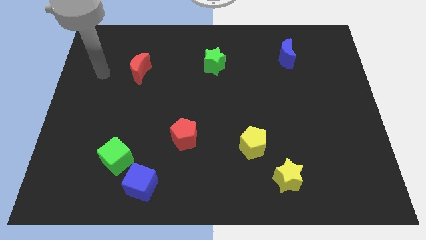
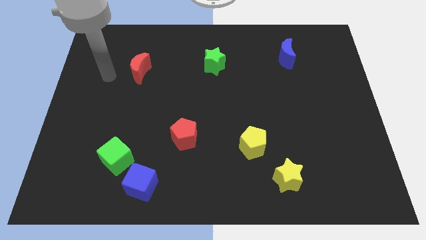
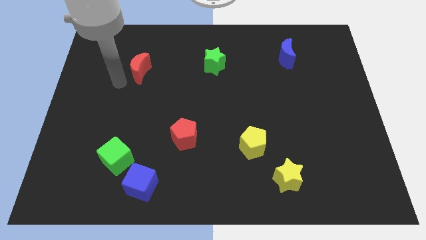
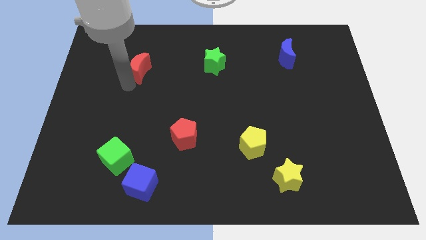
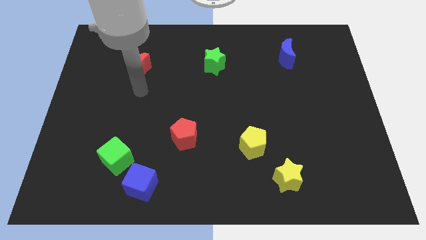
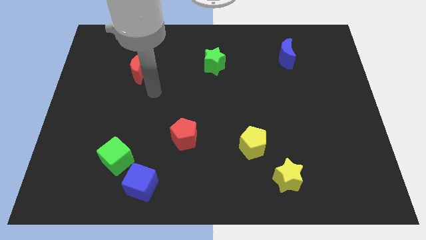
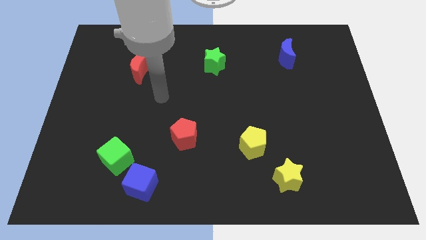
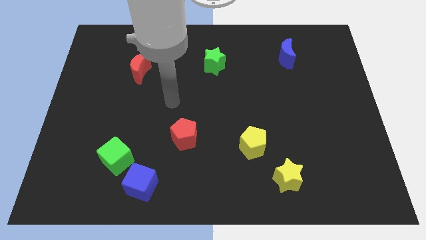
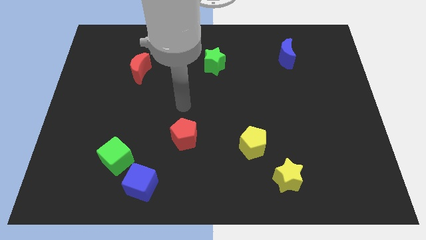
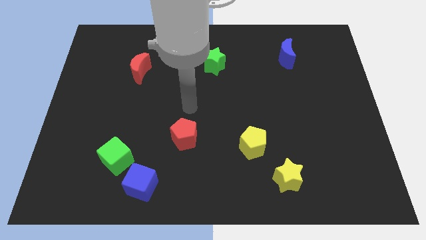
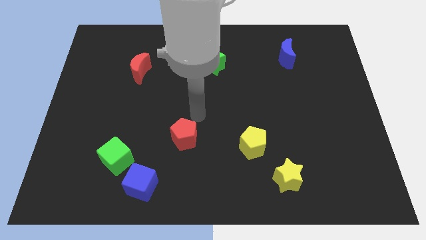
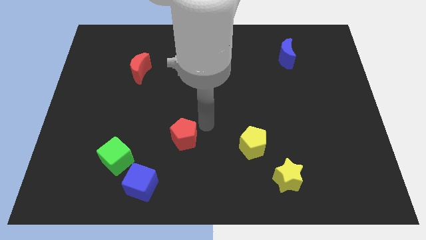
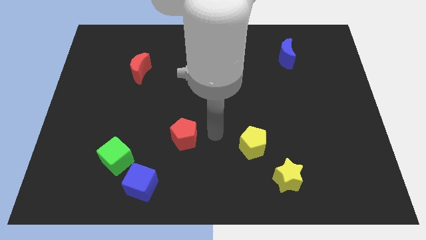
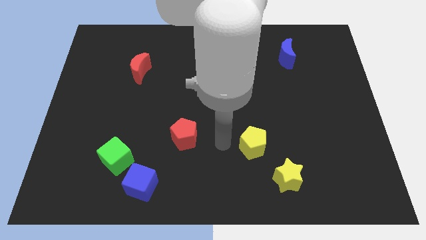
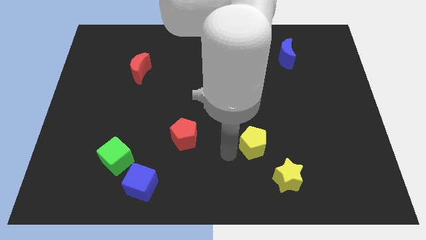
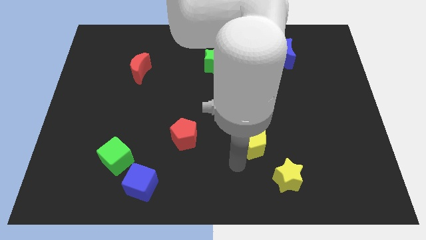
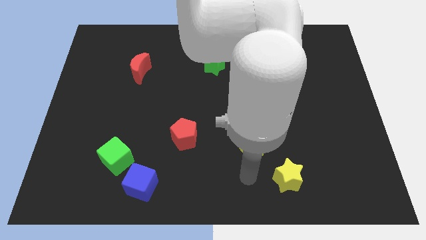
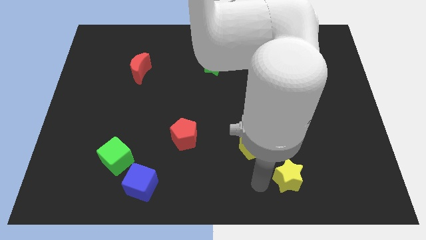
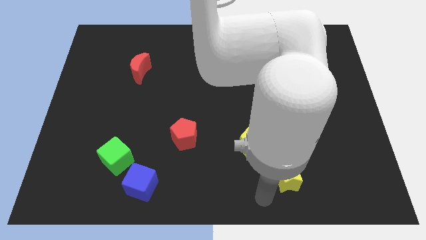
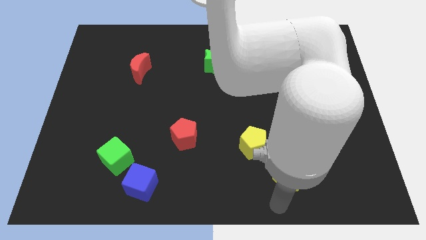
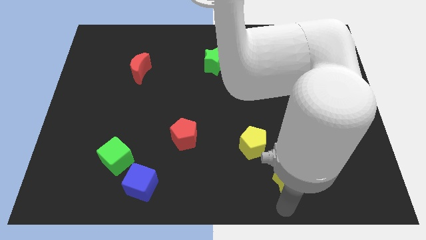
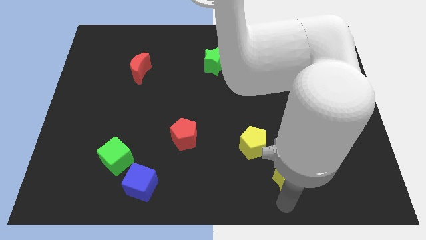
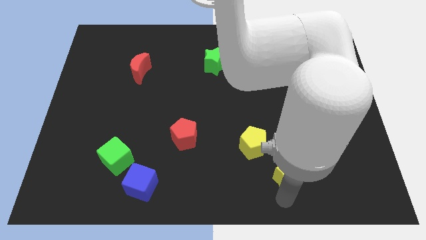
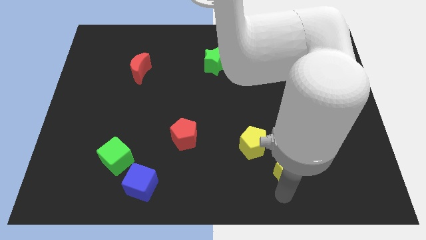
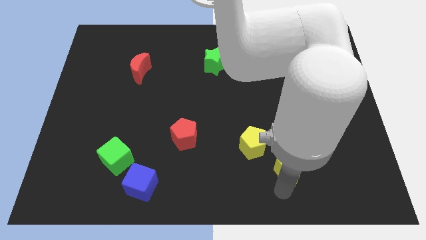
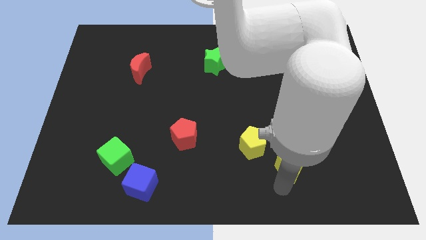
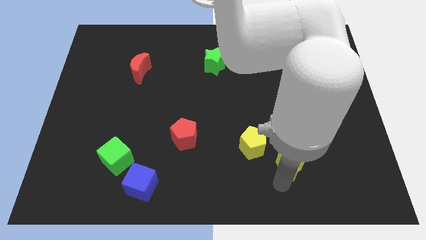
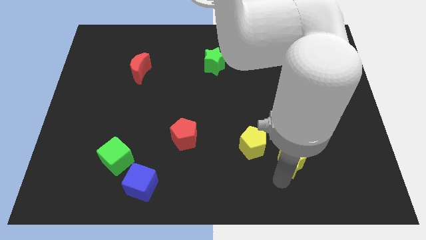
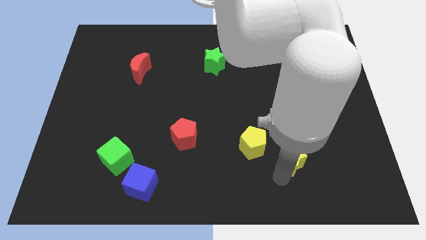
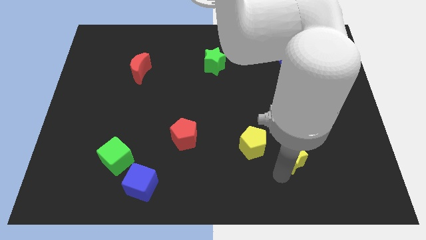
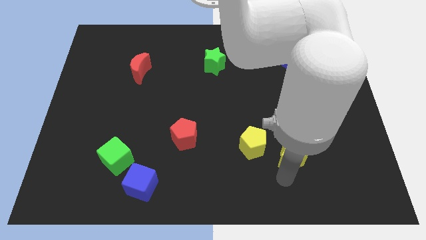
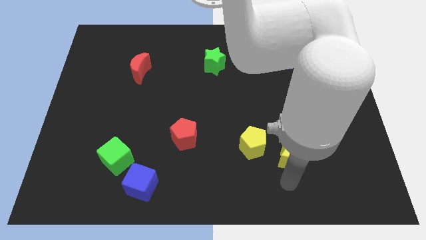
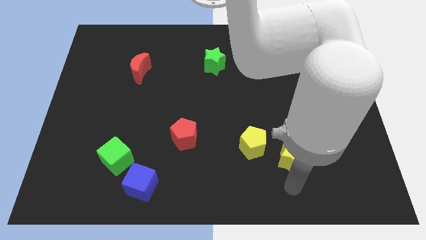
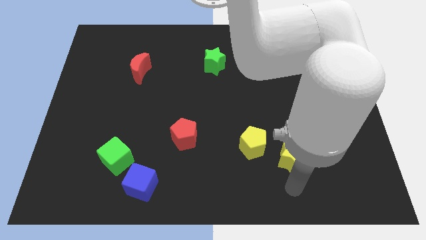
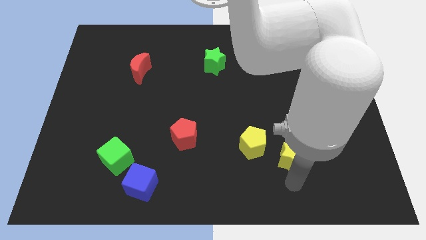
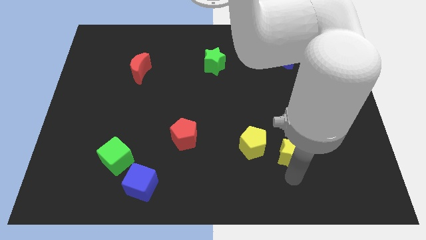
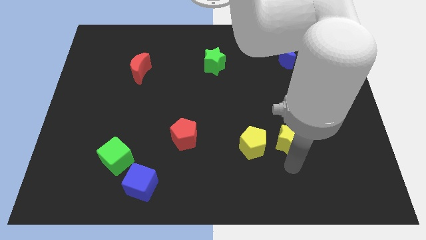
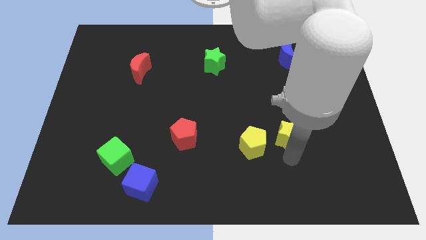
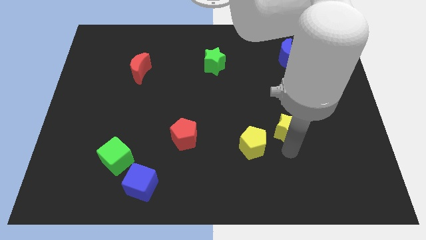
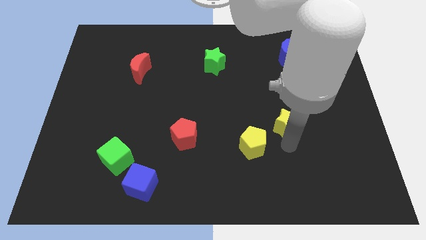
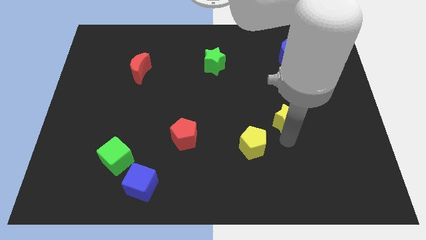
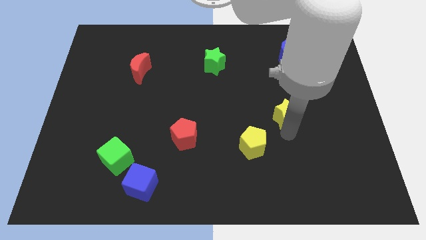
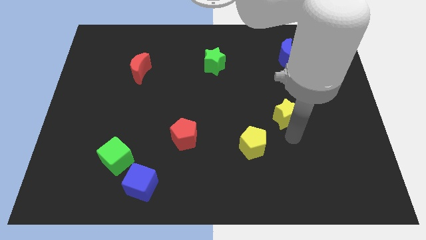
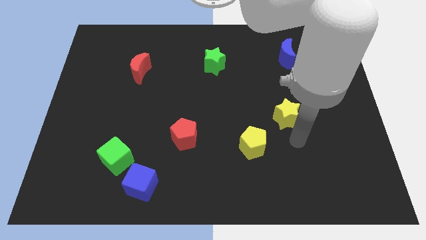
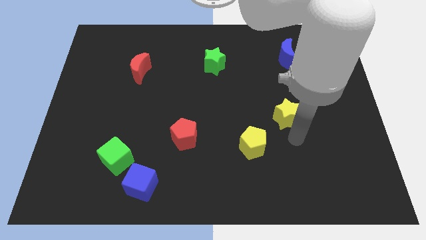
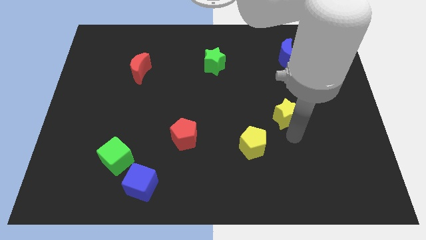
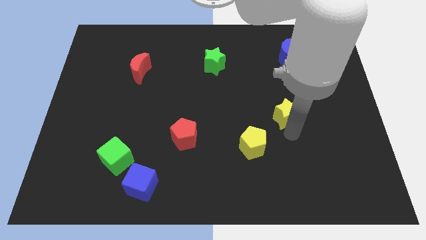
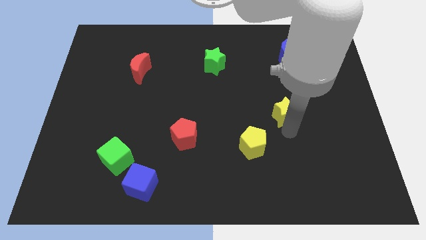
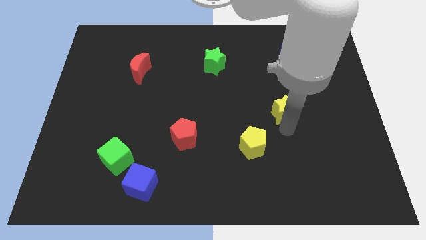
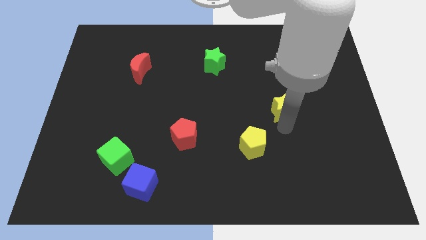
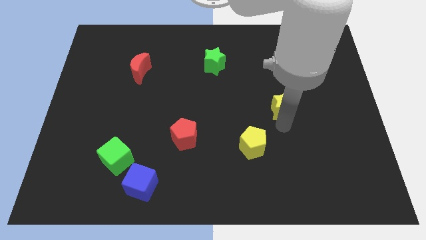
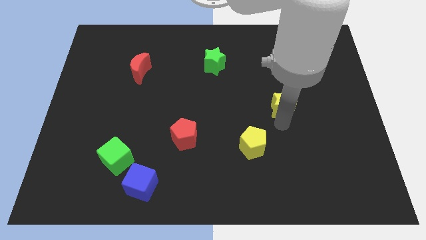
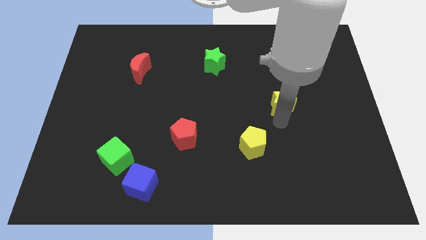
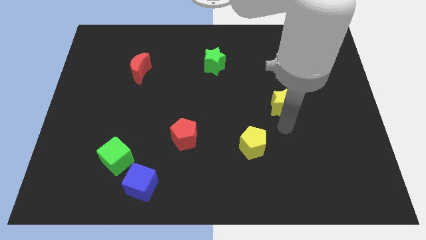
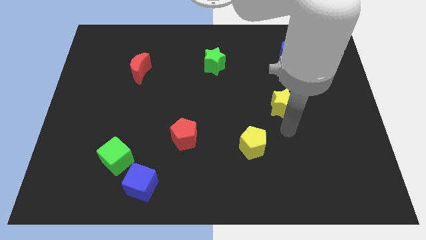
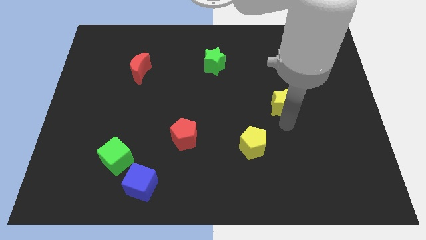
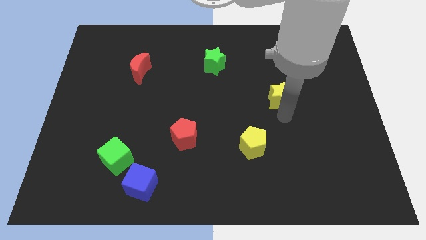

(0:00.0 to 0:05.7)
push the yellow star upwards

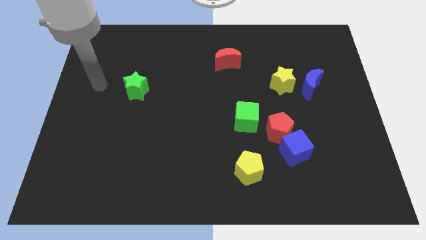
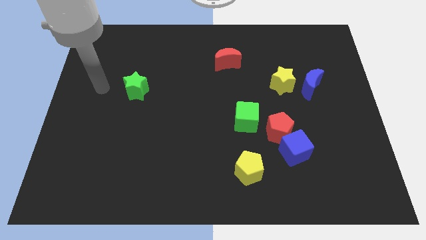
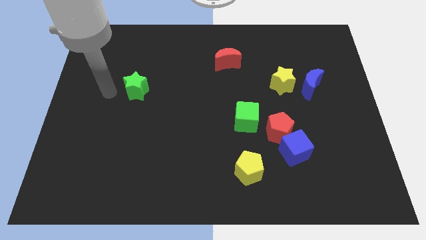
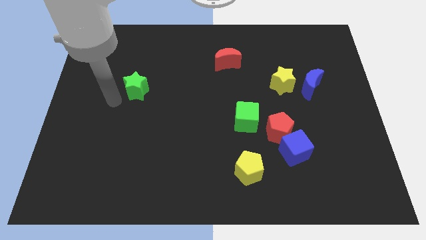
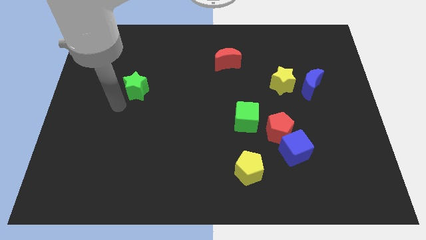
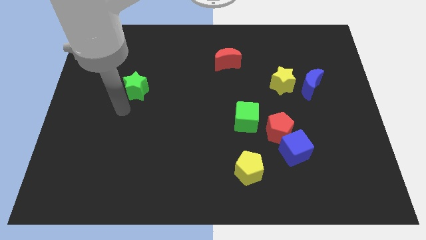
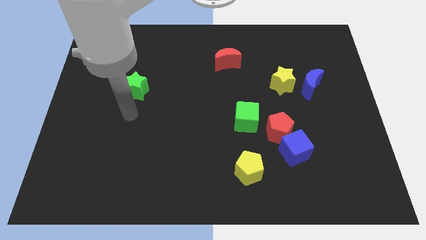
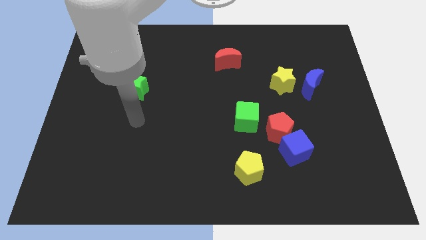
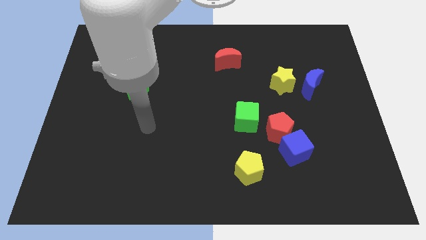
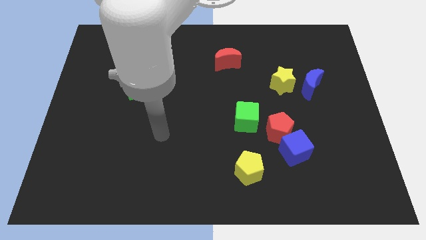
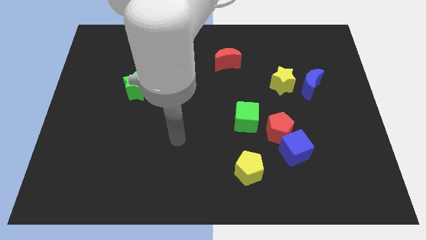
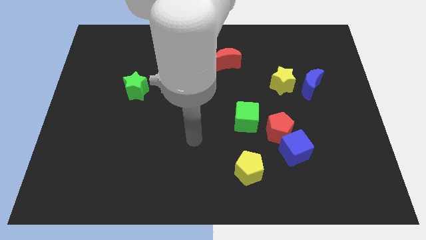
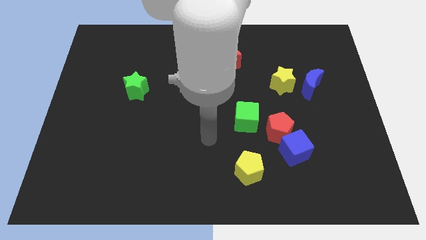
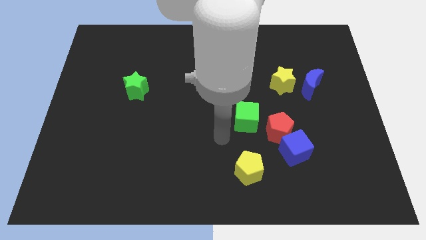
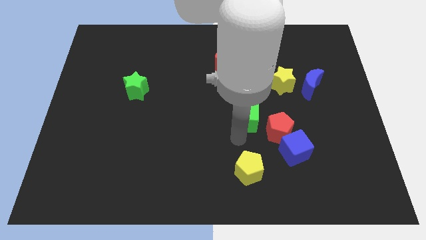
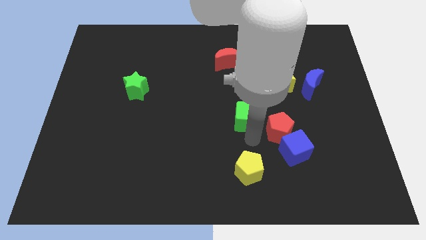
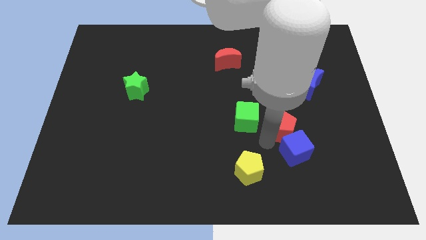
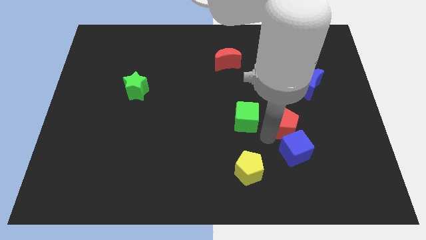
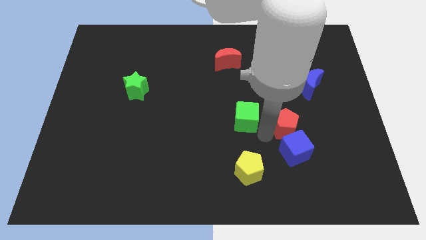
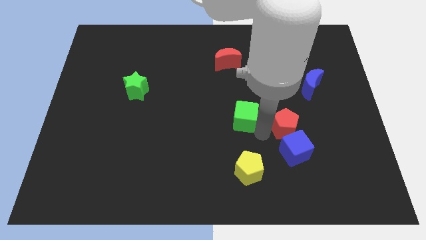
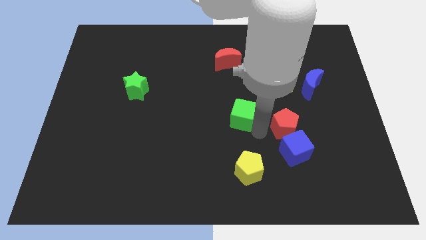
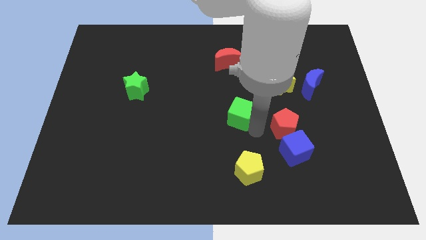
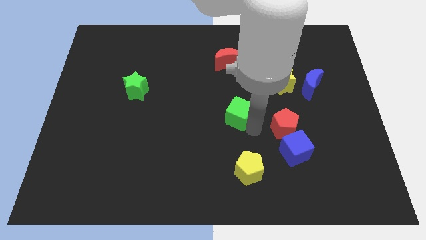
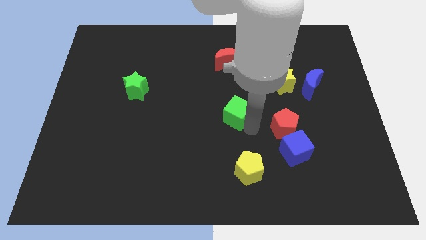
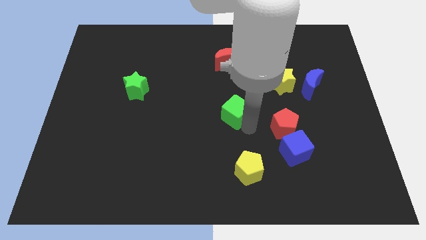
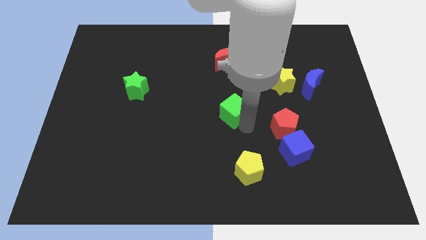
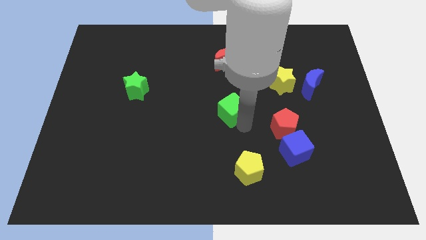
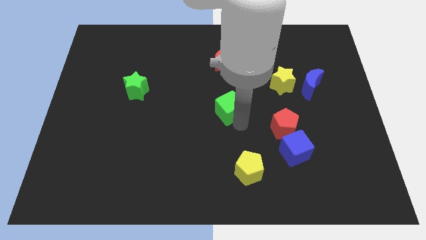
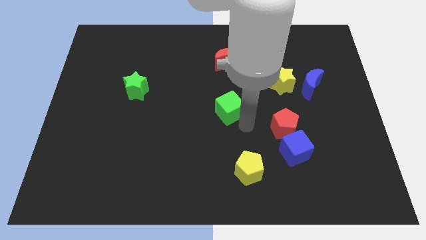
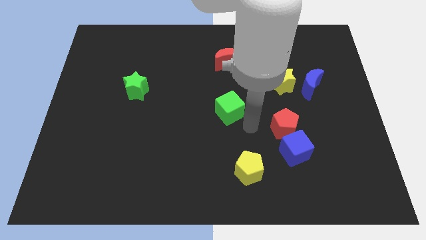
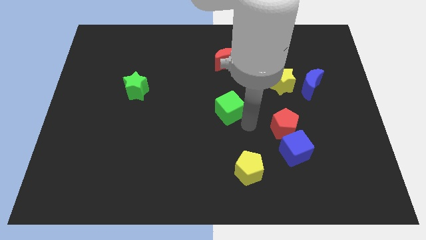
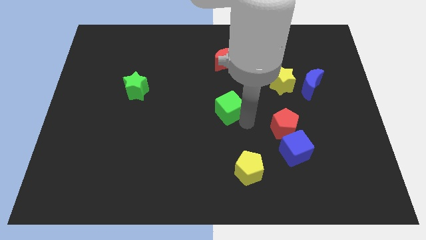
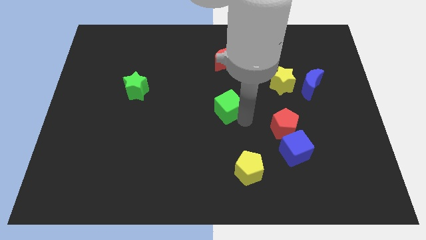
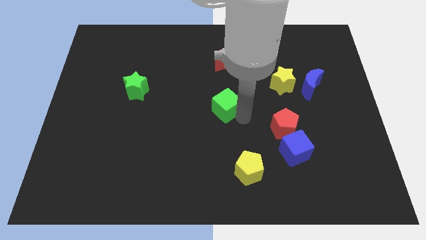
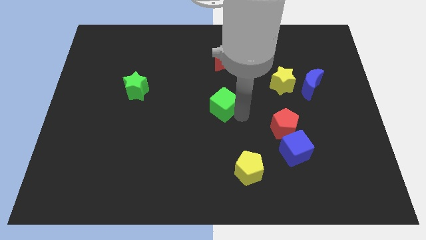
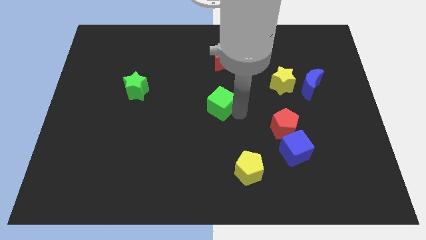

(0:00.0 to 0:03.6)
move the green cube upwards and then to the left a bit
